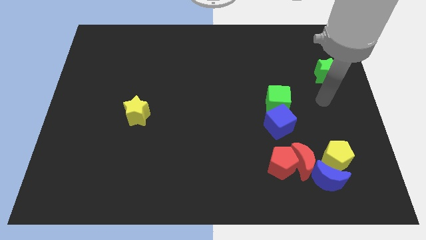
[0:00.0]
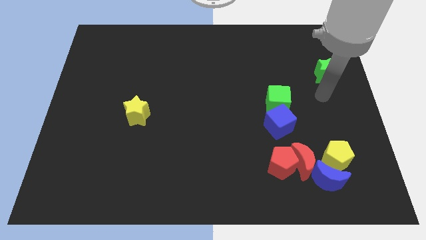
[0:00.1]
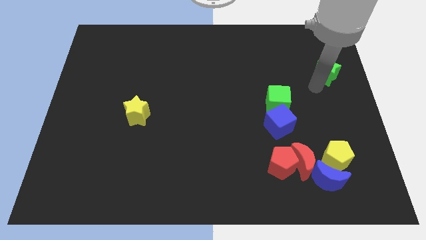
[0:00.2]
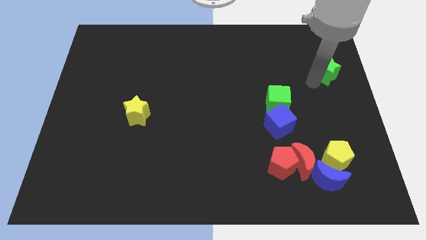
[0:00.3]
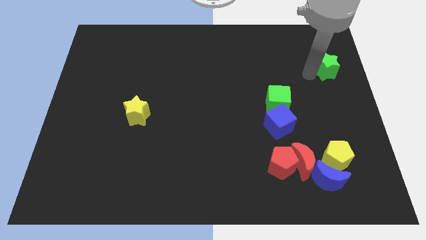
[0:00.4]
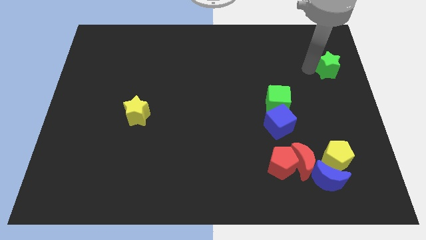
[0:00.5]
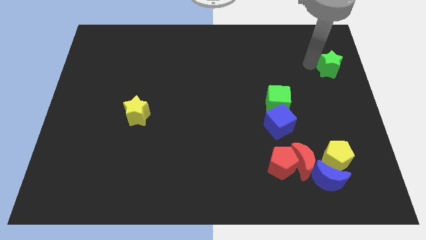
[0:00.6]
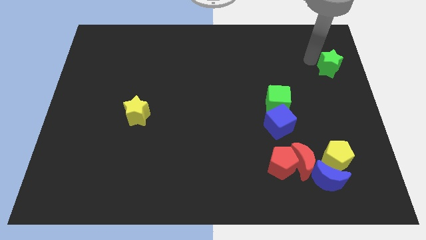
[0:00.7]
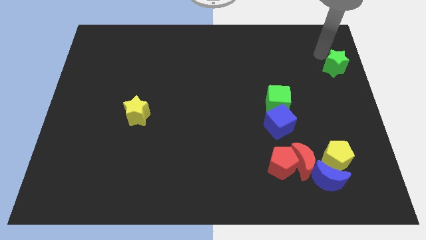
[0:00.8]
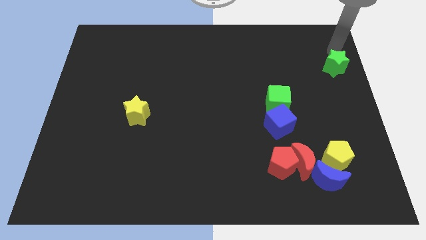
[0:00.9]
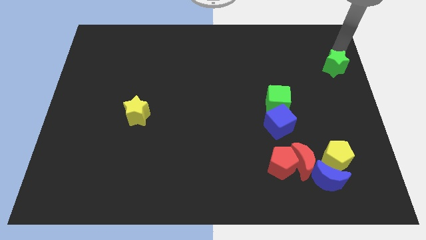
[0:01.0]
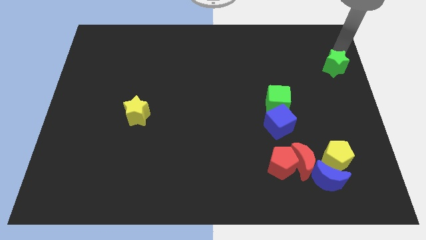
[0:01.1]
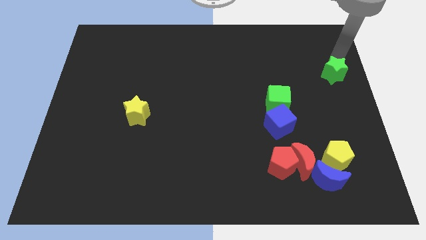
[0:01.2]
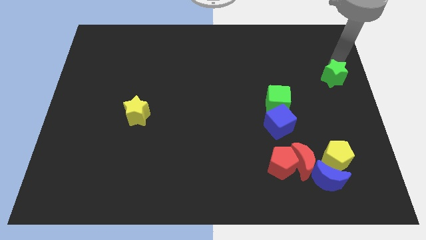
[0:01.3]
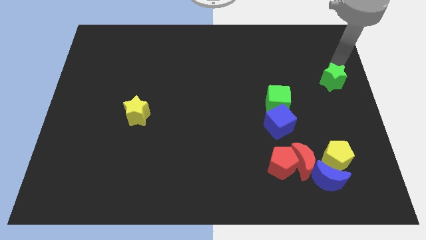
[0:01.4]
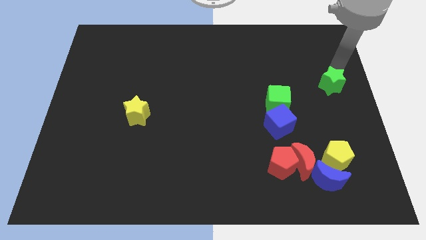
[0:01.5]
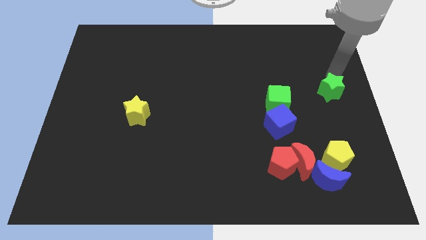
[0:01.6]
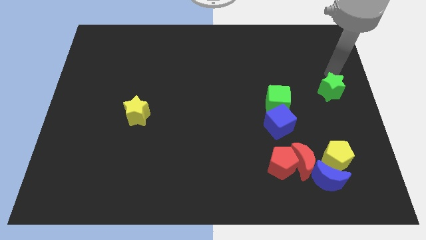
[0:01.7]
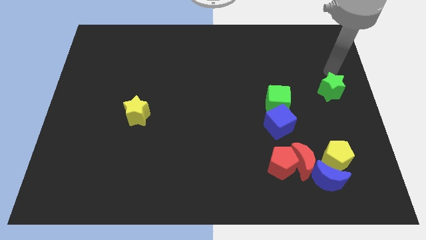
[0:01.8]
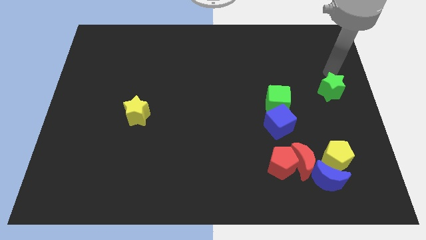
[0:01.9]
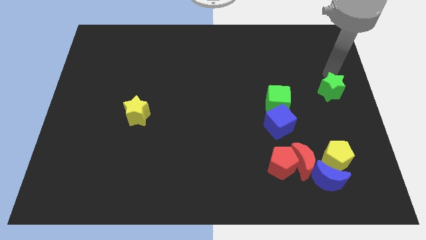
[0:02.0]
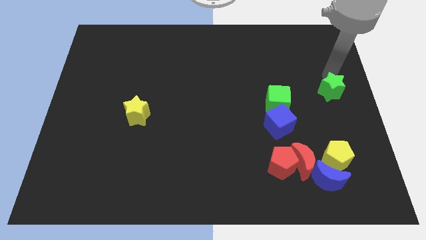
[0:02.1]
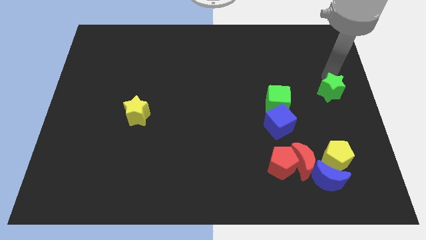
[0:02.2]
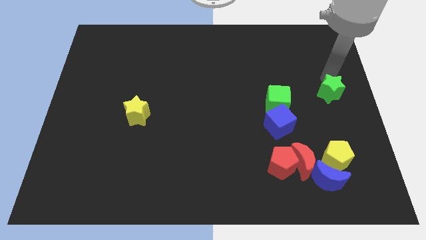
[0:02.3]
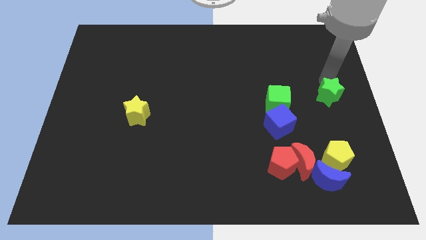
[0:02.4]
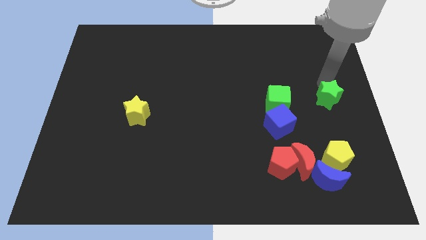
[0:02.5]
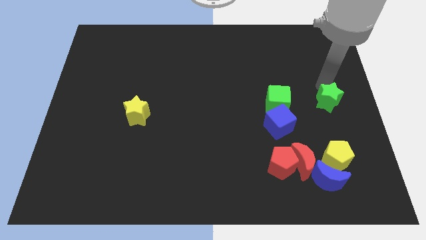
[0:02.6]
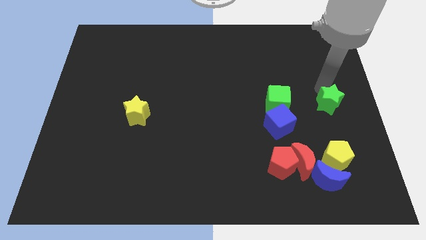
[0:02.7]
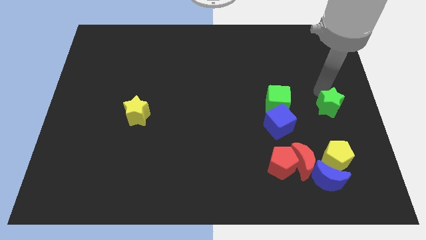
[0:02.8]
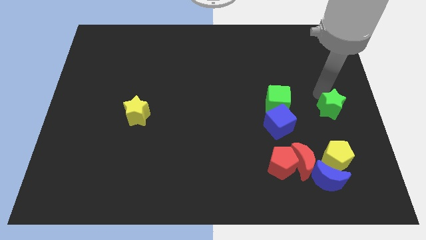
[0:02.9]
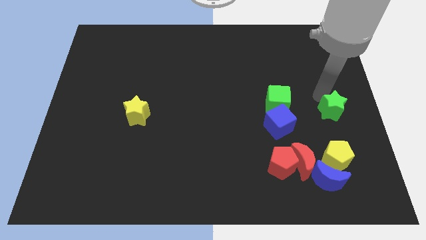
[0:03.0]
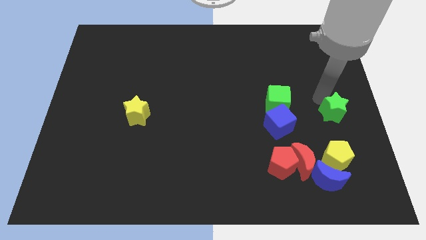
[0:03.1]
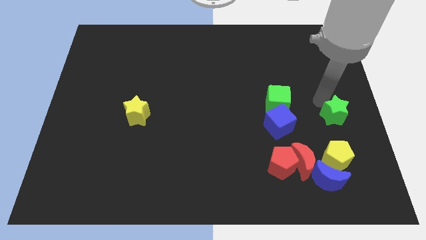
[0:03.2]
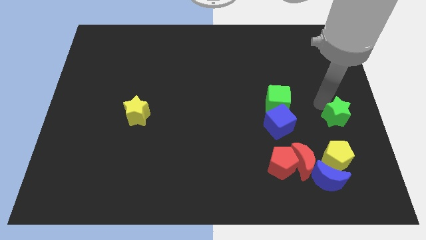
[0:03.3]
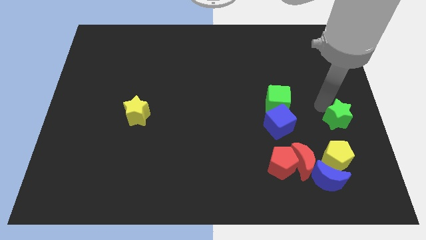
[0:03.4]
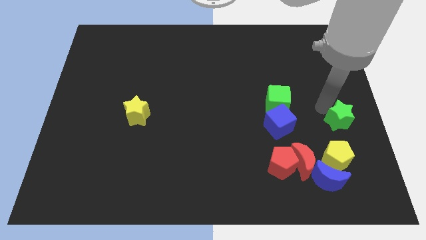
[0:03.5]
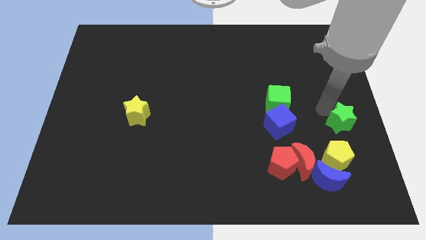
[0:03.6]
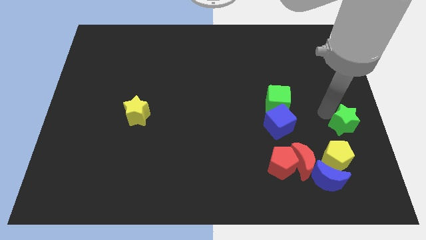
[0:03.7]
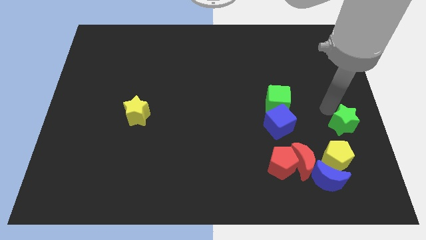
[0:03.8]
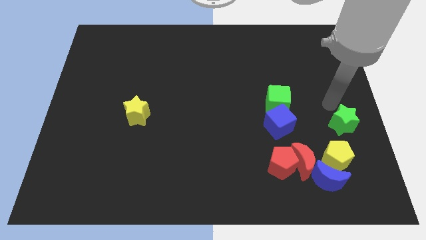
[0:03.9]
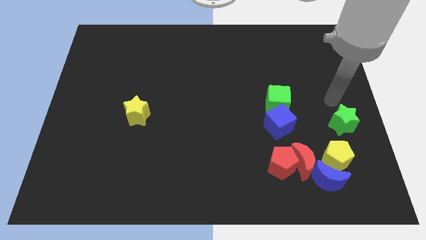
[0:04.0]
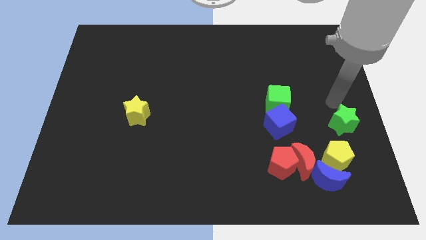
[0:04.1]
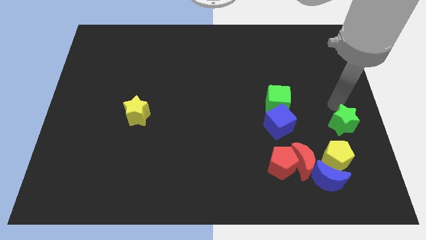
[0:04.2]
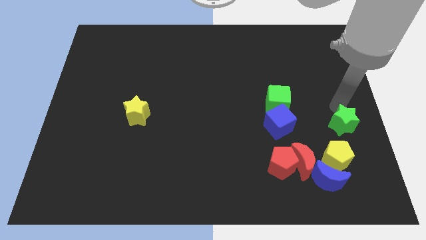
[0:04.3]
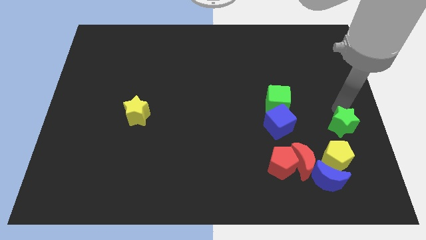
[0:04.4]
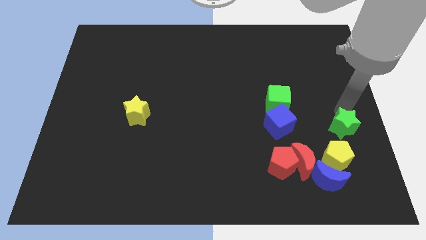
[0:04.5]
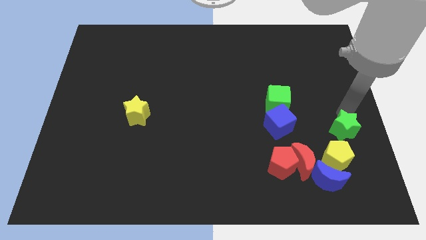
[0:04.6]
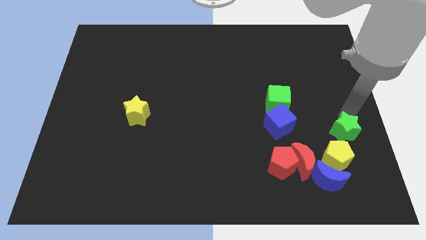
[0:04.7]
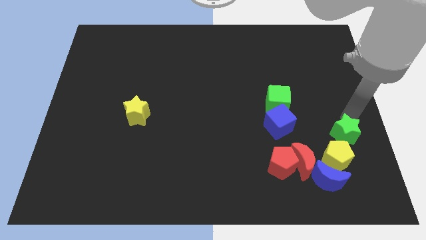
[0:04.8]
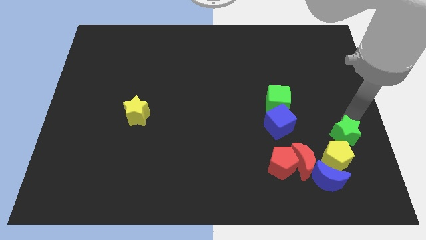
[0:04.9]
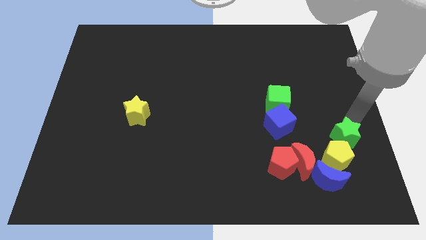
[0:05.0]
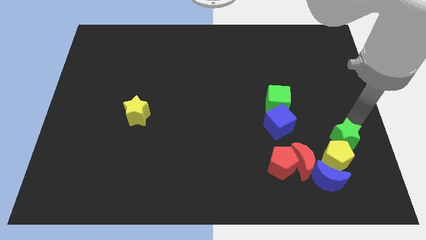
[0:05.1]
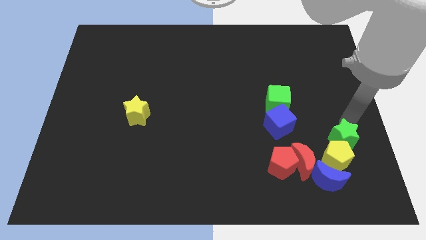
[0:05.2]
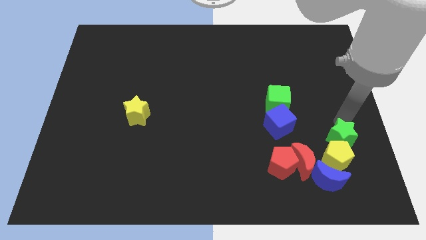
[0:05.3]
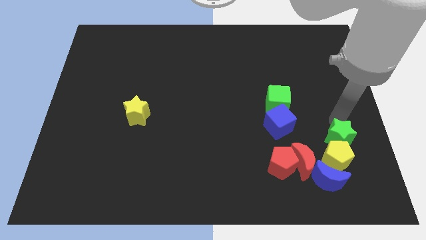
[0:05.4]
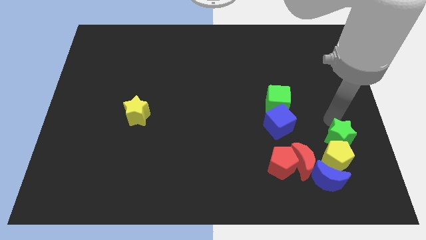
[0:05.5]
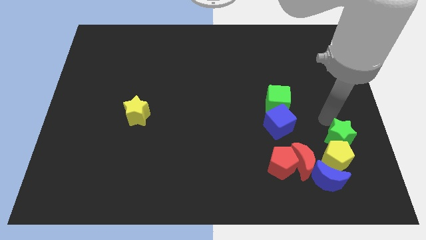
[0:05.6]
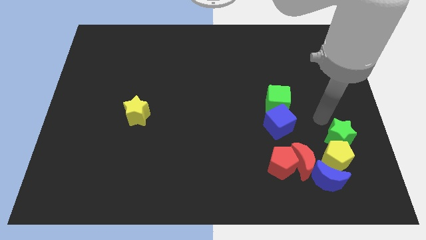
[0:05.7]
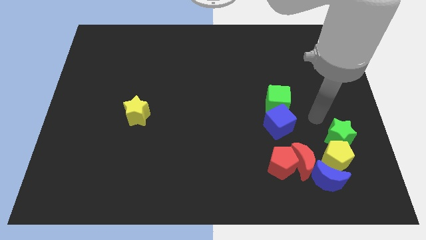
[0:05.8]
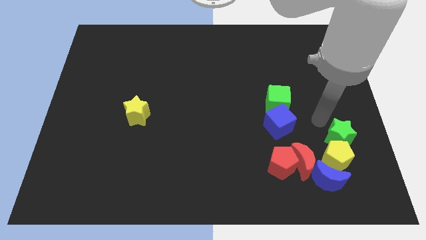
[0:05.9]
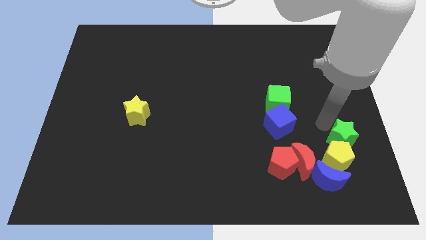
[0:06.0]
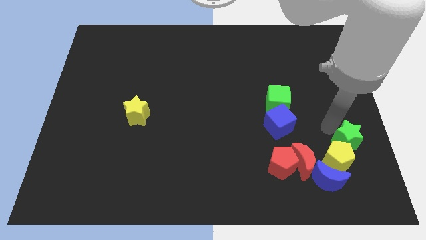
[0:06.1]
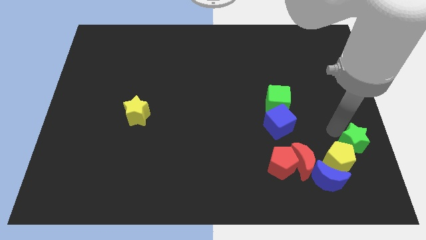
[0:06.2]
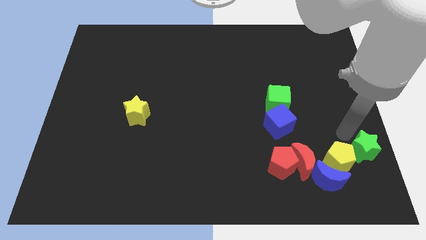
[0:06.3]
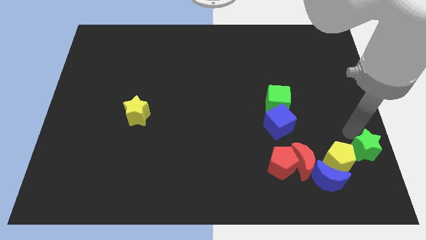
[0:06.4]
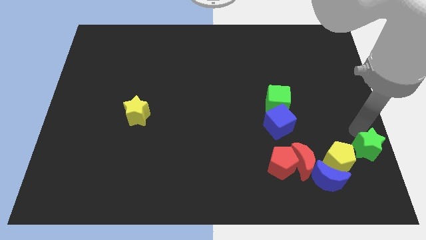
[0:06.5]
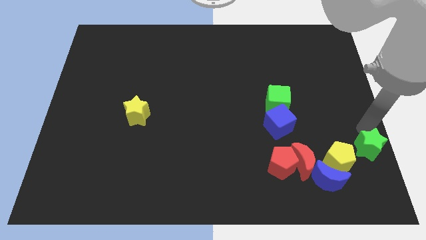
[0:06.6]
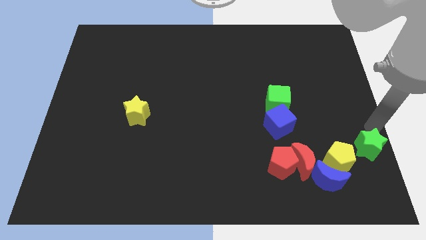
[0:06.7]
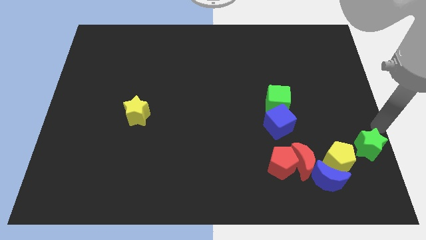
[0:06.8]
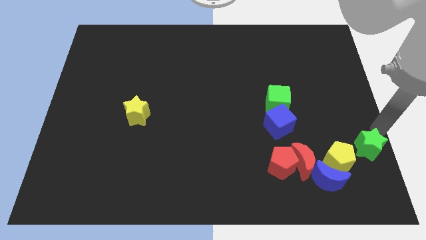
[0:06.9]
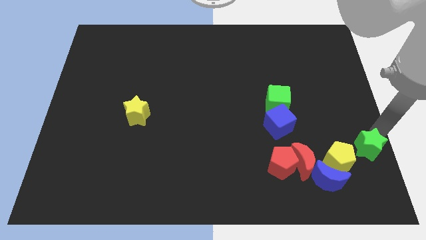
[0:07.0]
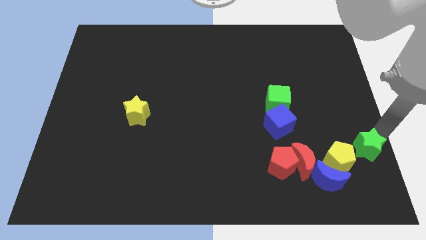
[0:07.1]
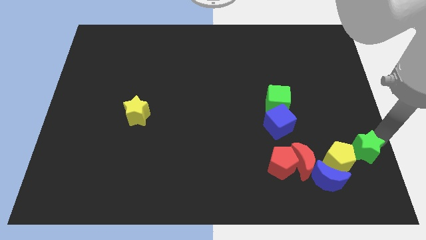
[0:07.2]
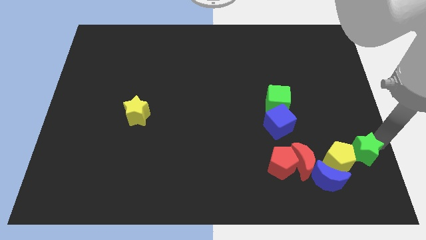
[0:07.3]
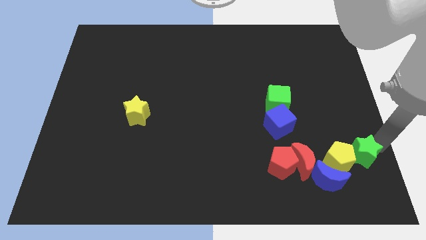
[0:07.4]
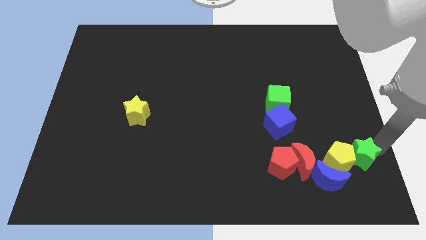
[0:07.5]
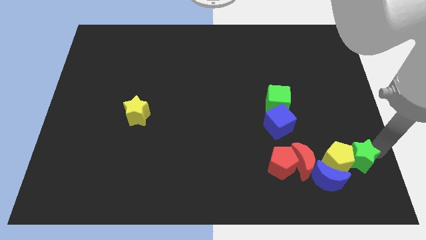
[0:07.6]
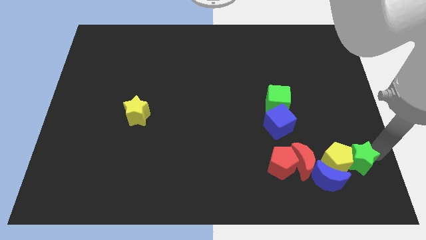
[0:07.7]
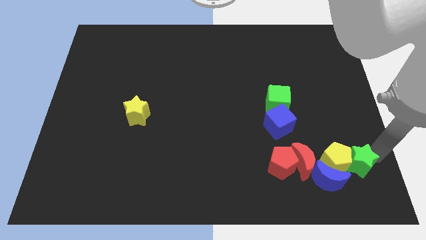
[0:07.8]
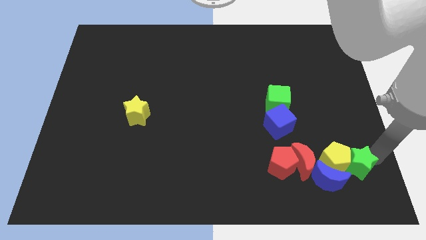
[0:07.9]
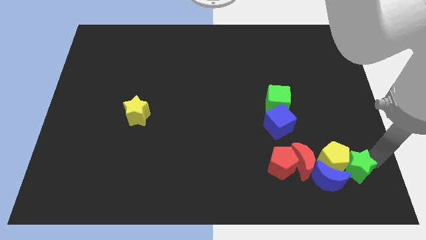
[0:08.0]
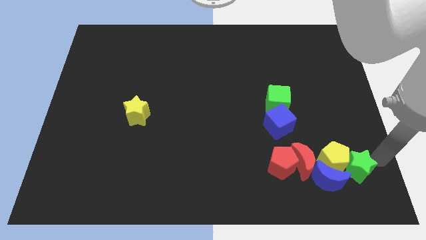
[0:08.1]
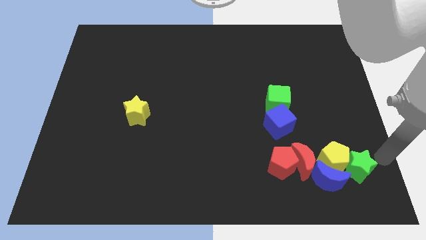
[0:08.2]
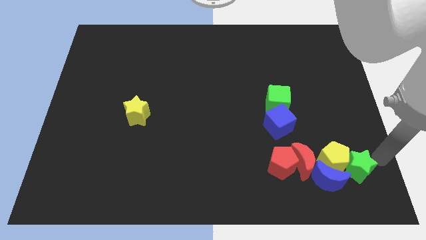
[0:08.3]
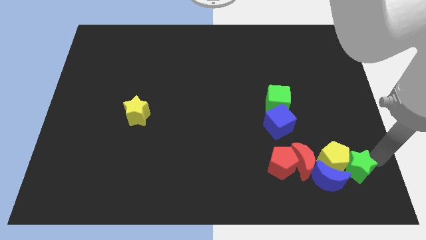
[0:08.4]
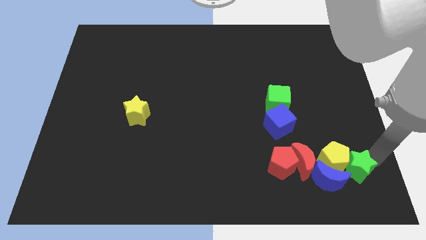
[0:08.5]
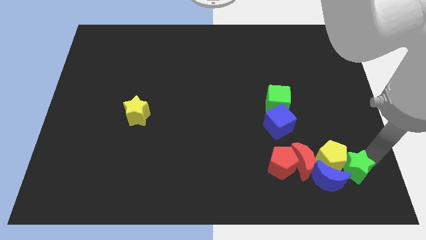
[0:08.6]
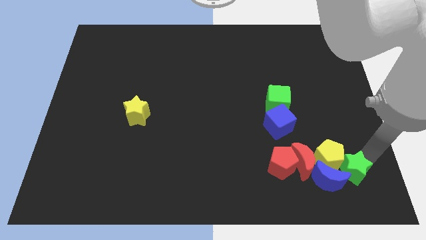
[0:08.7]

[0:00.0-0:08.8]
slide the green star close to the blue moon
